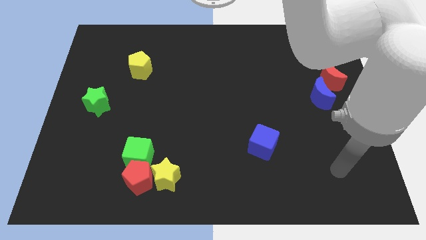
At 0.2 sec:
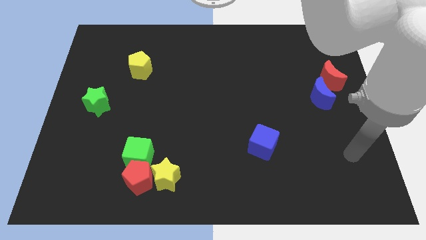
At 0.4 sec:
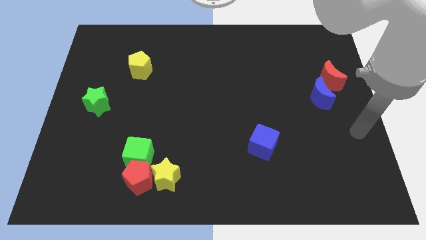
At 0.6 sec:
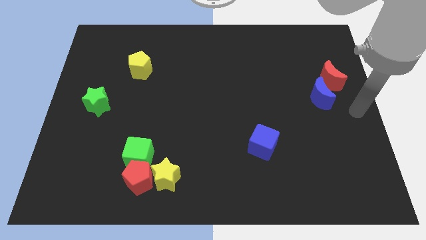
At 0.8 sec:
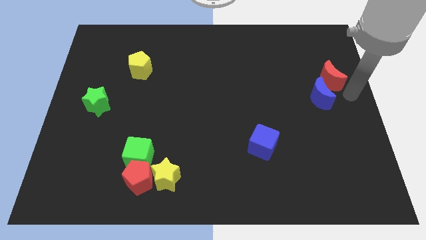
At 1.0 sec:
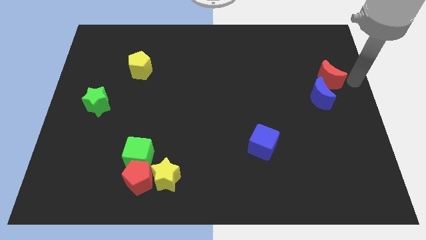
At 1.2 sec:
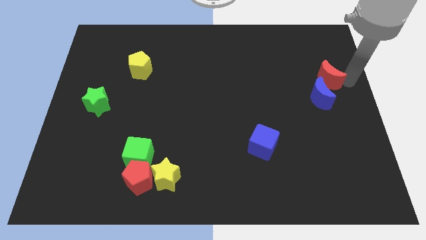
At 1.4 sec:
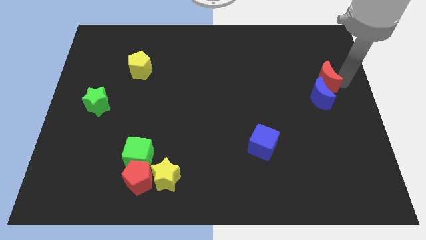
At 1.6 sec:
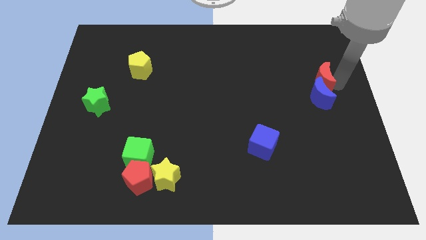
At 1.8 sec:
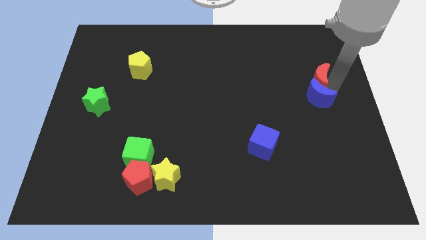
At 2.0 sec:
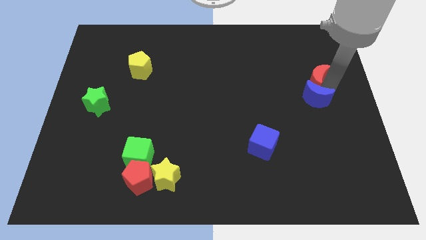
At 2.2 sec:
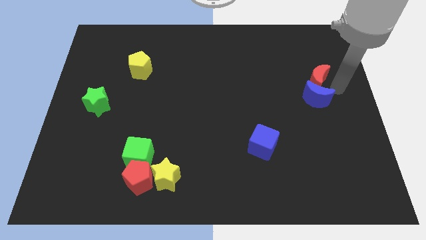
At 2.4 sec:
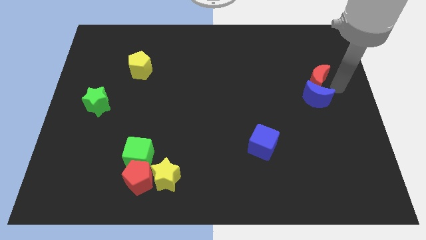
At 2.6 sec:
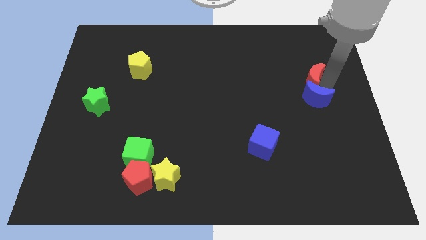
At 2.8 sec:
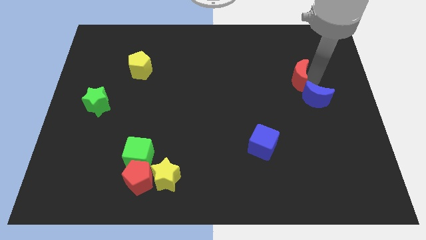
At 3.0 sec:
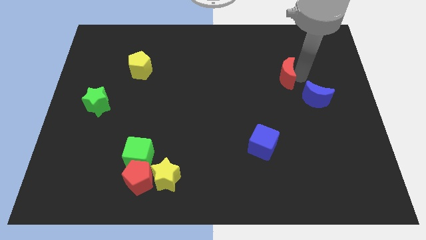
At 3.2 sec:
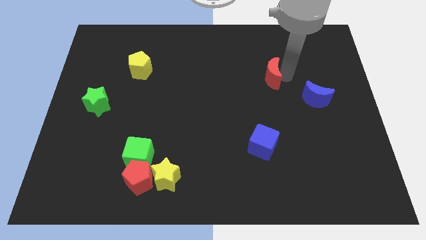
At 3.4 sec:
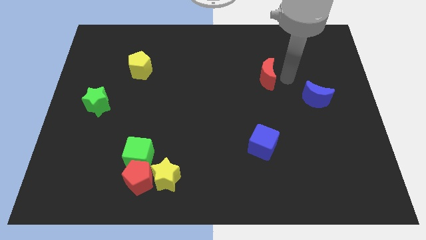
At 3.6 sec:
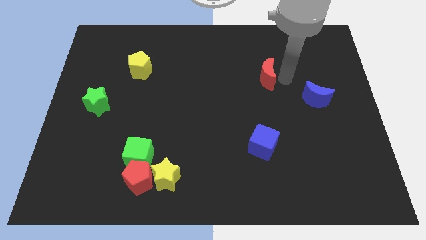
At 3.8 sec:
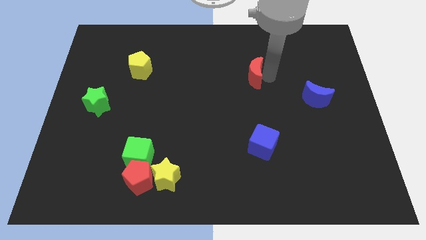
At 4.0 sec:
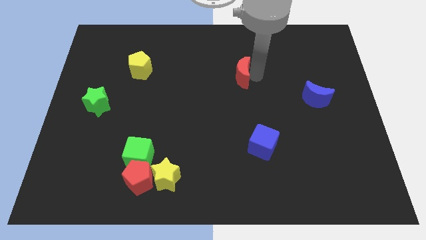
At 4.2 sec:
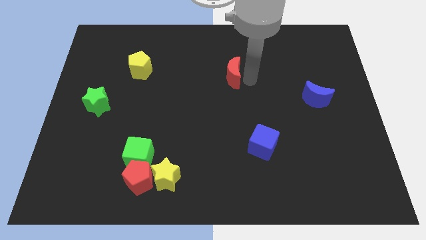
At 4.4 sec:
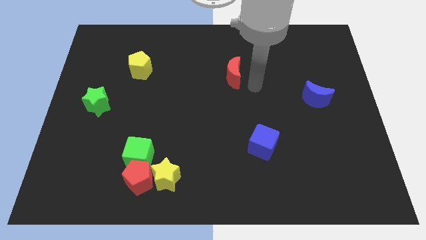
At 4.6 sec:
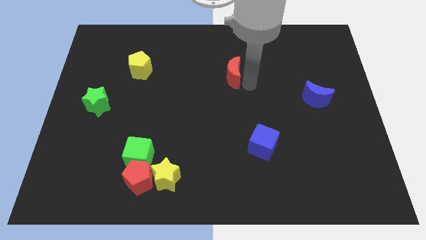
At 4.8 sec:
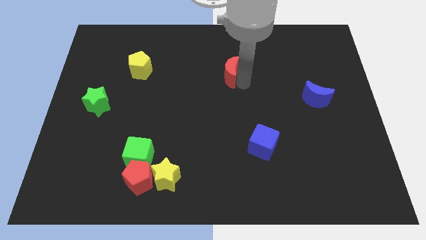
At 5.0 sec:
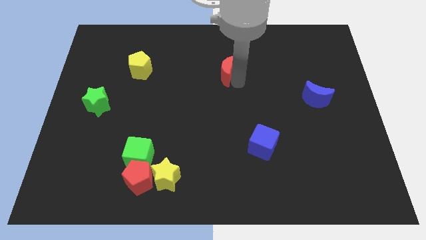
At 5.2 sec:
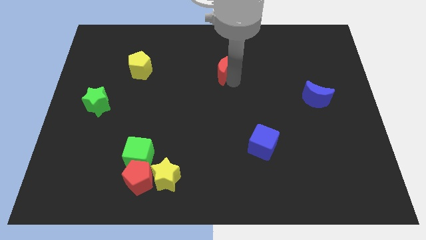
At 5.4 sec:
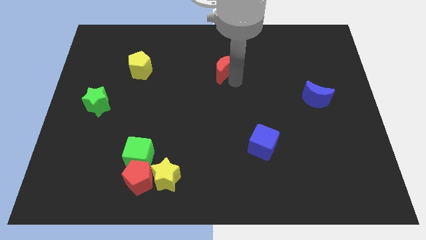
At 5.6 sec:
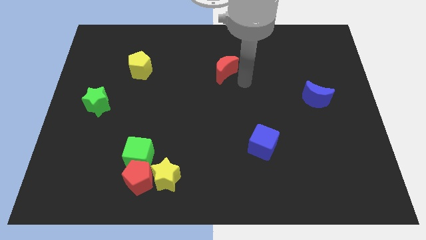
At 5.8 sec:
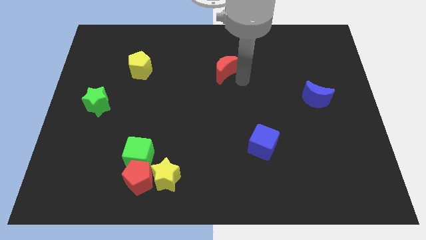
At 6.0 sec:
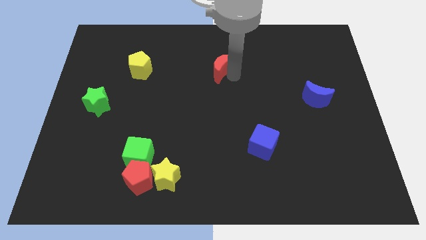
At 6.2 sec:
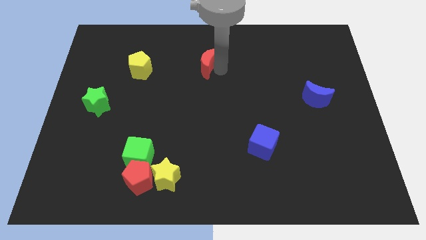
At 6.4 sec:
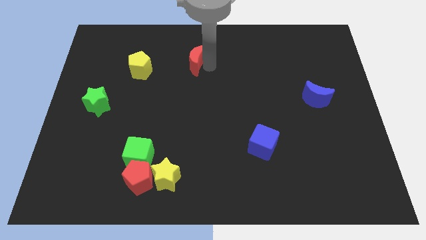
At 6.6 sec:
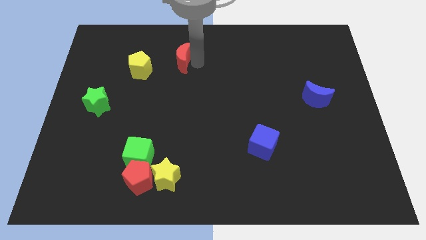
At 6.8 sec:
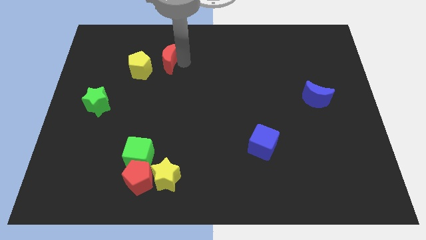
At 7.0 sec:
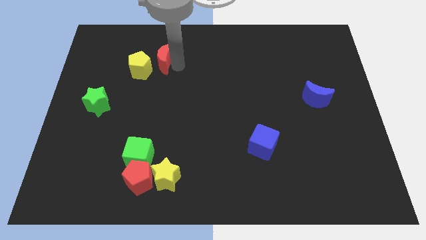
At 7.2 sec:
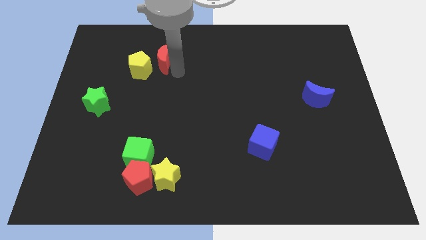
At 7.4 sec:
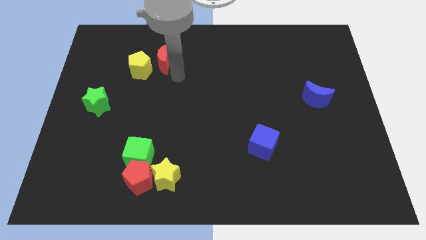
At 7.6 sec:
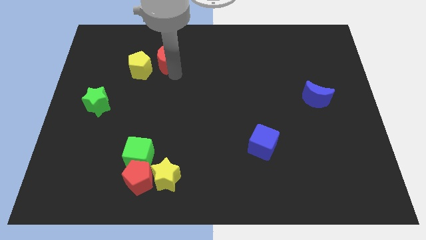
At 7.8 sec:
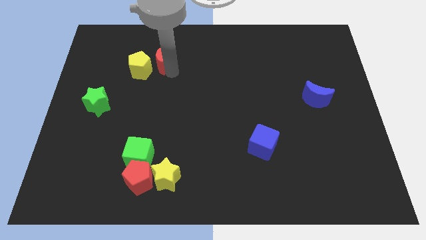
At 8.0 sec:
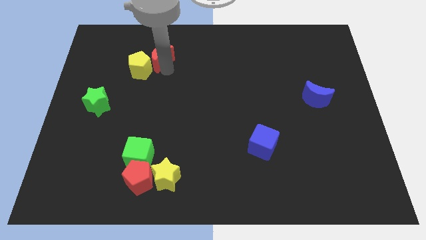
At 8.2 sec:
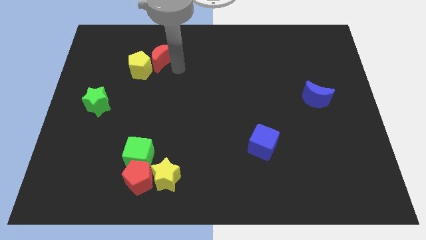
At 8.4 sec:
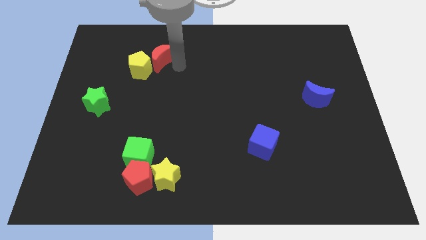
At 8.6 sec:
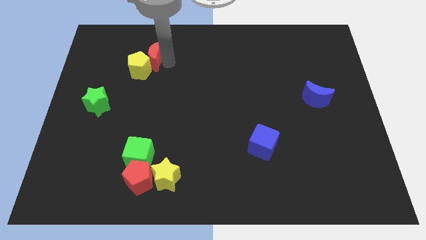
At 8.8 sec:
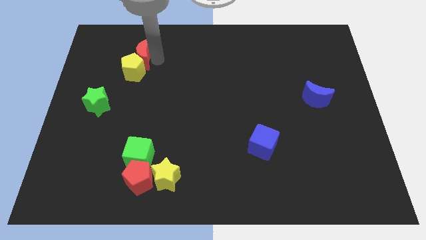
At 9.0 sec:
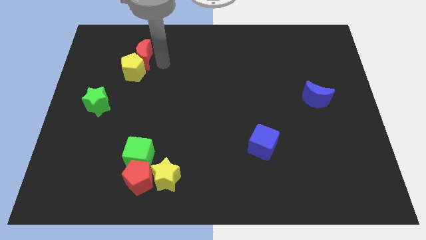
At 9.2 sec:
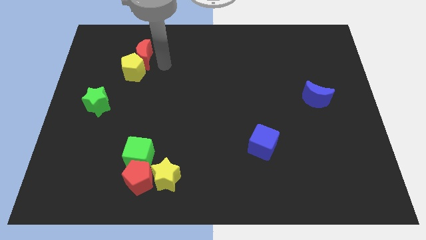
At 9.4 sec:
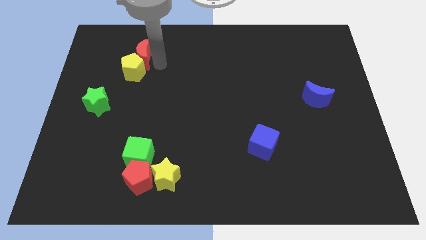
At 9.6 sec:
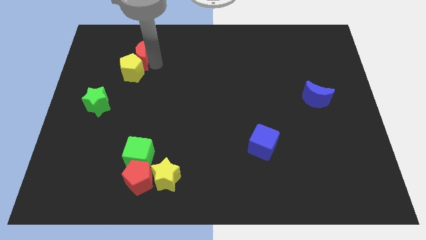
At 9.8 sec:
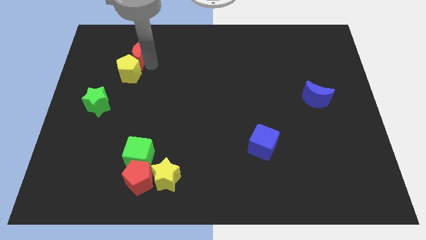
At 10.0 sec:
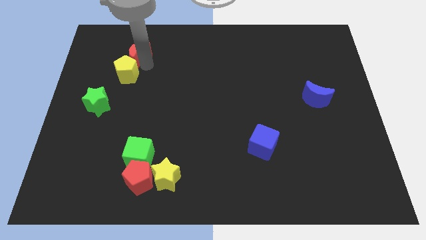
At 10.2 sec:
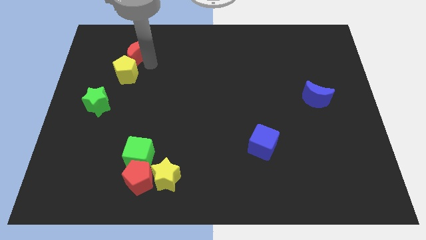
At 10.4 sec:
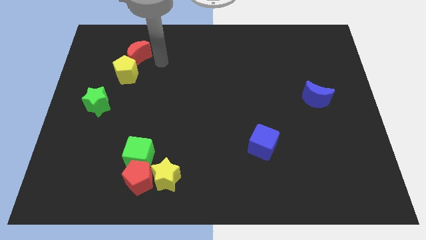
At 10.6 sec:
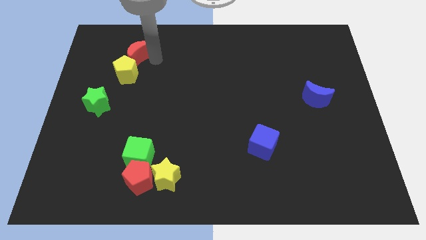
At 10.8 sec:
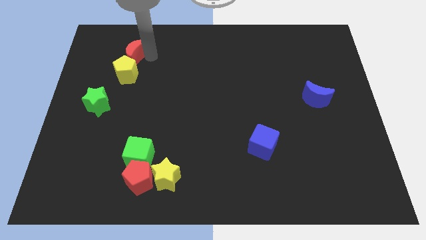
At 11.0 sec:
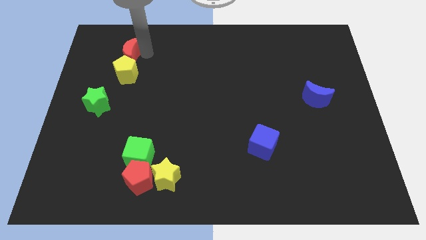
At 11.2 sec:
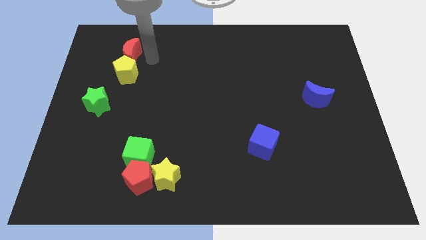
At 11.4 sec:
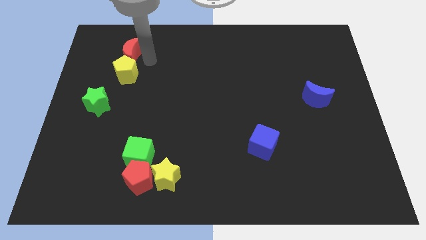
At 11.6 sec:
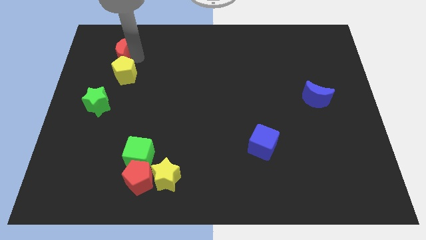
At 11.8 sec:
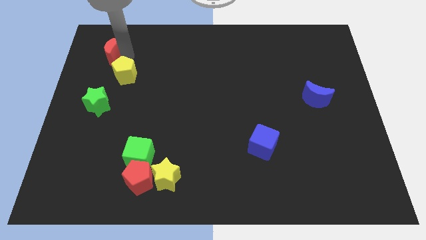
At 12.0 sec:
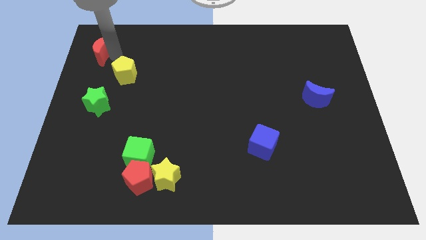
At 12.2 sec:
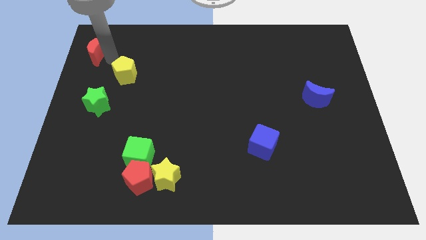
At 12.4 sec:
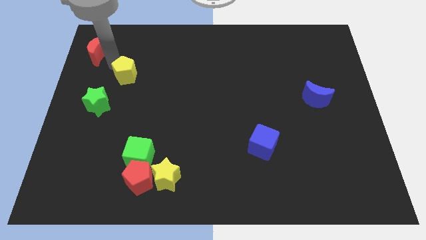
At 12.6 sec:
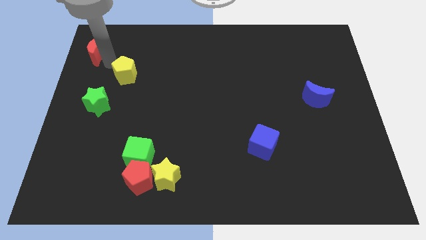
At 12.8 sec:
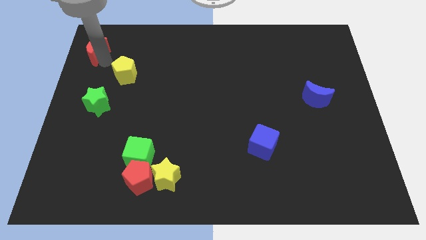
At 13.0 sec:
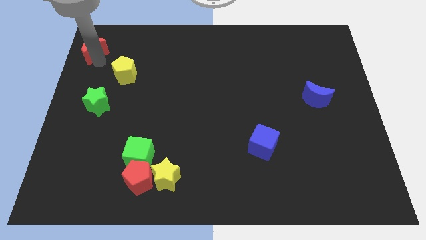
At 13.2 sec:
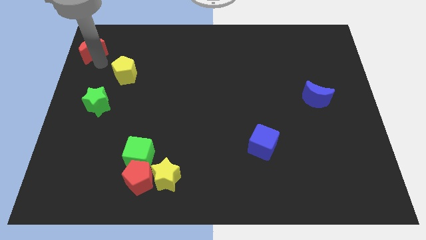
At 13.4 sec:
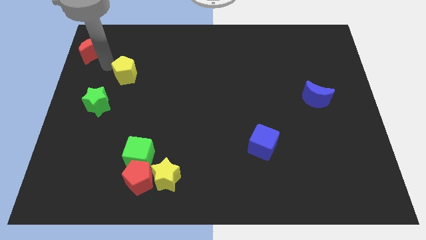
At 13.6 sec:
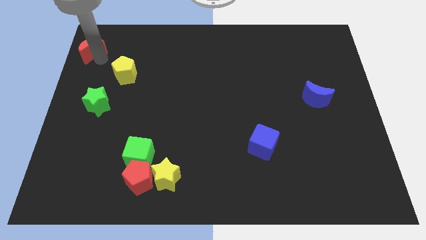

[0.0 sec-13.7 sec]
move the red moon to the top left
